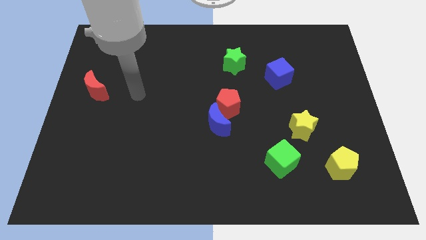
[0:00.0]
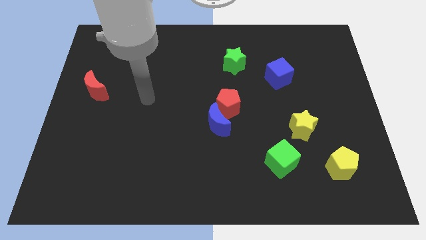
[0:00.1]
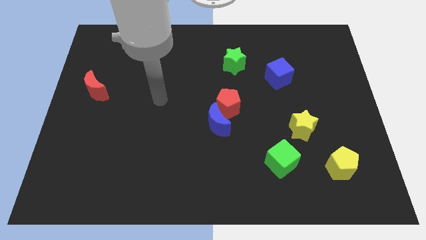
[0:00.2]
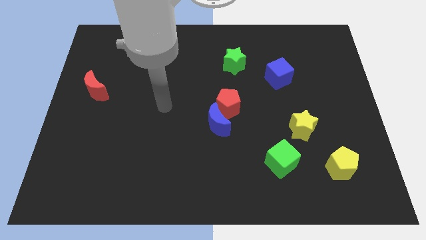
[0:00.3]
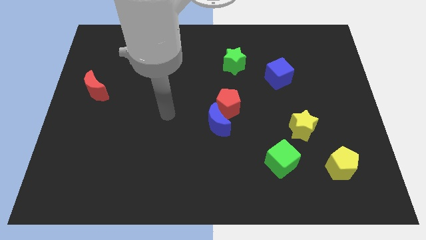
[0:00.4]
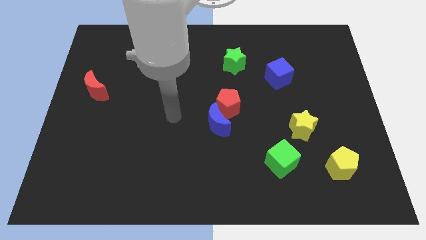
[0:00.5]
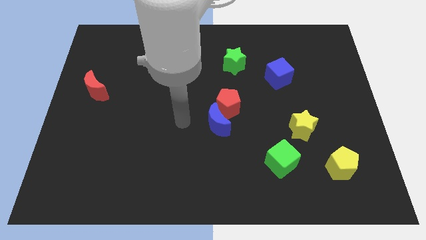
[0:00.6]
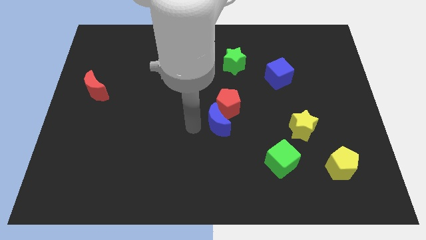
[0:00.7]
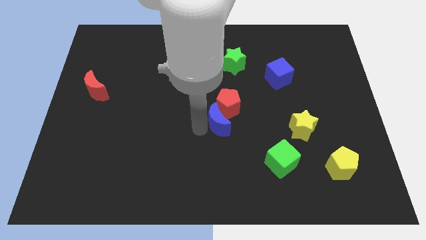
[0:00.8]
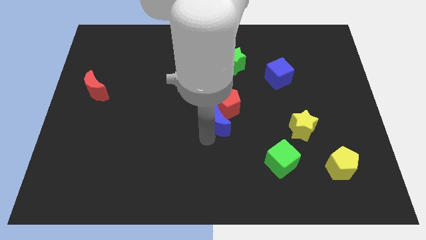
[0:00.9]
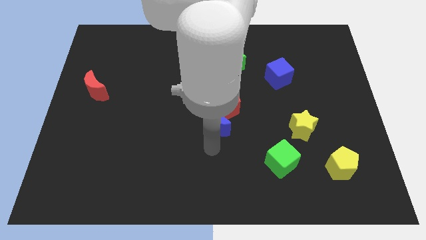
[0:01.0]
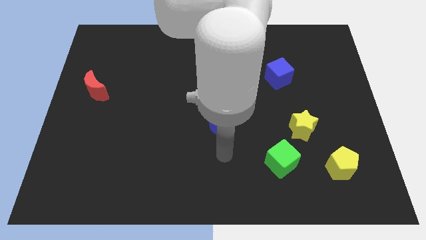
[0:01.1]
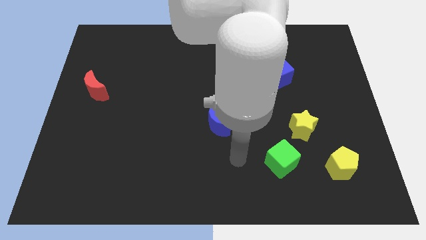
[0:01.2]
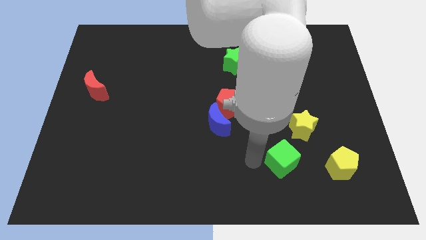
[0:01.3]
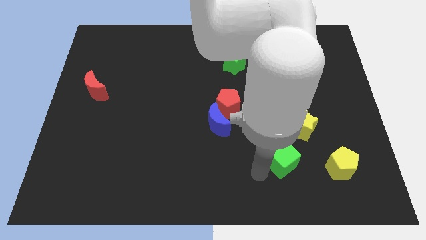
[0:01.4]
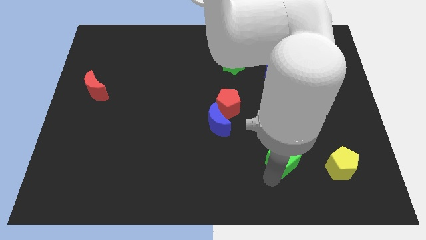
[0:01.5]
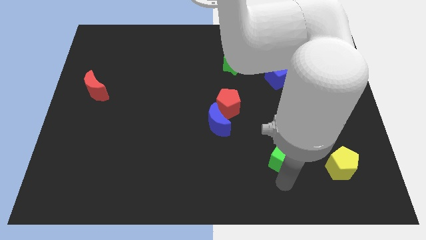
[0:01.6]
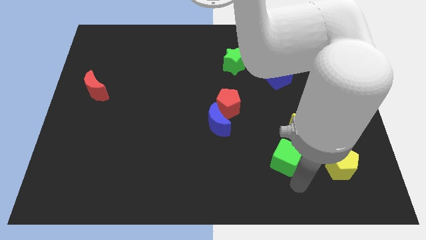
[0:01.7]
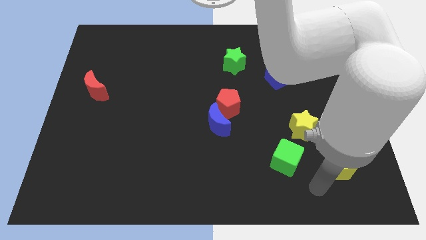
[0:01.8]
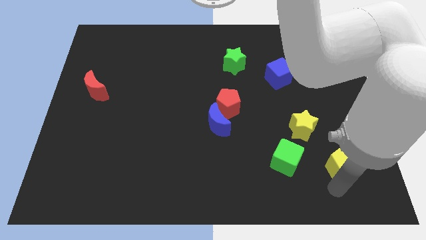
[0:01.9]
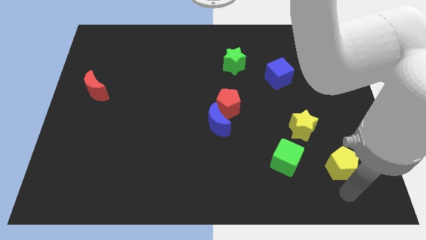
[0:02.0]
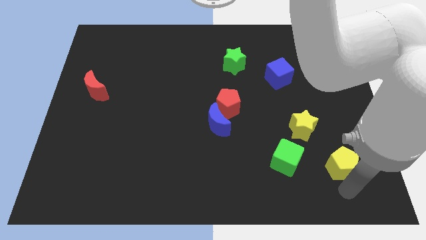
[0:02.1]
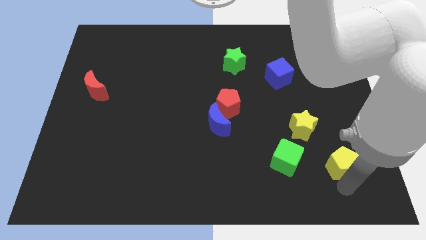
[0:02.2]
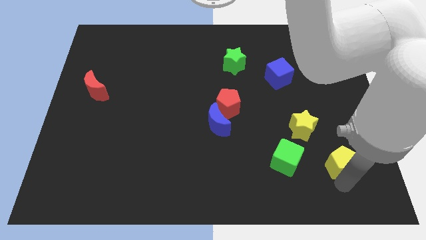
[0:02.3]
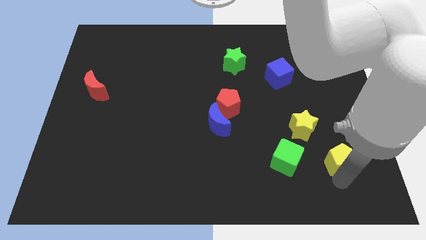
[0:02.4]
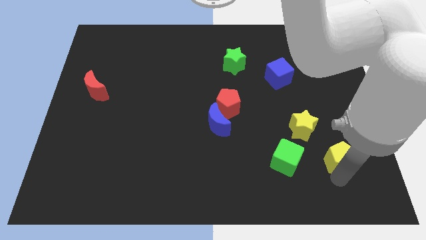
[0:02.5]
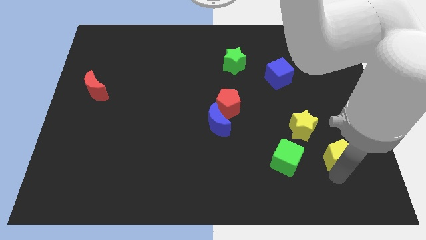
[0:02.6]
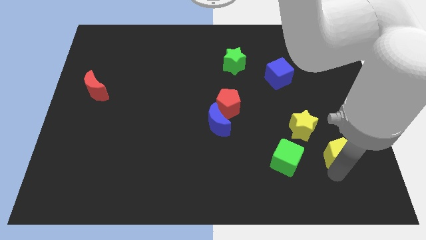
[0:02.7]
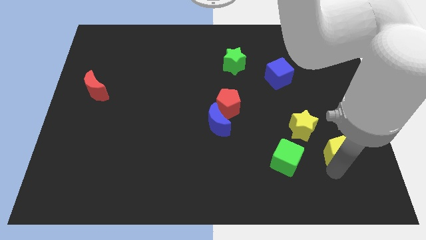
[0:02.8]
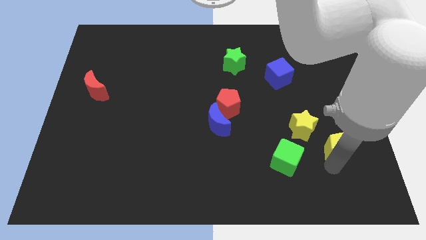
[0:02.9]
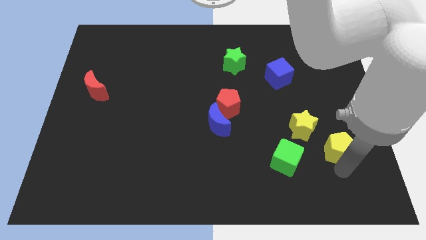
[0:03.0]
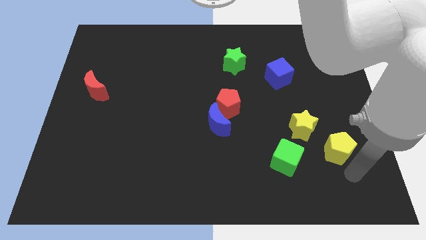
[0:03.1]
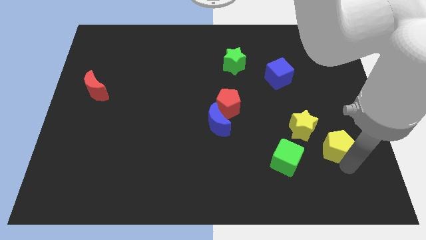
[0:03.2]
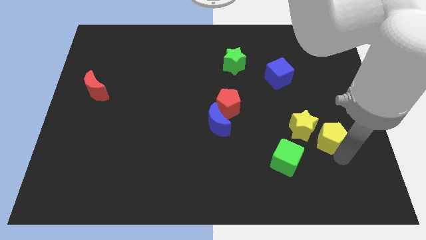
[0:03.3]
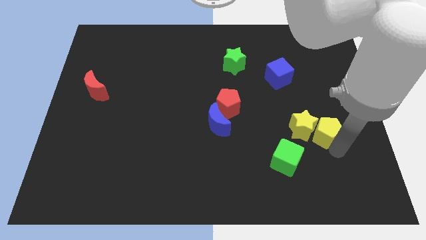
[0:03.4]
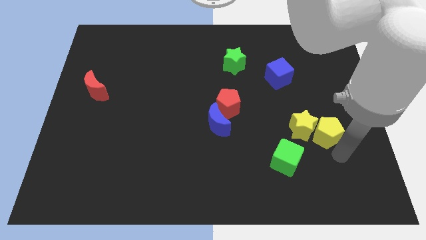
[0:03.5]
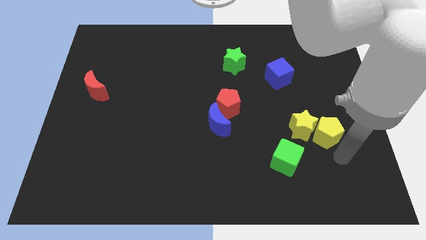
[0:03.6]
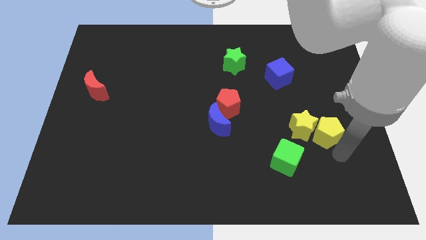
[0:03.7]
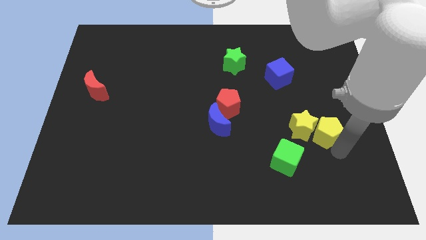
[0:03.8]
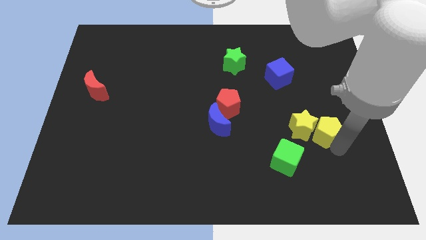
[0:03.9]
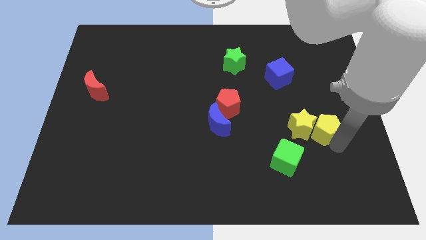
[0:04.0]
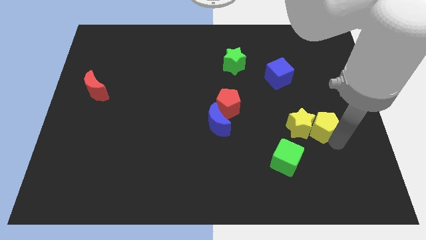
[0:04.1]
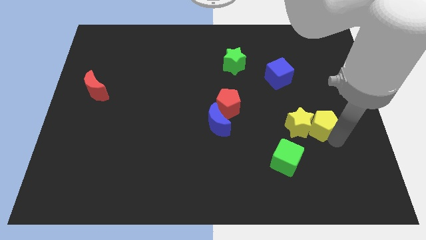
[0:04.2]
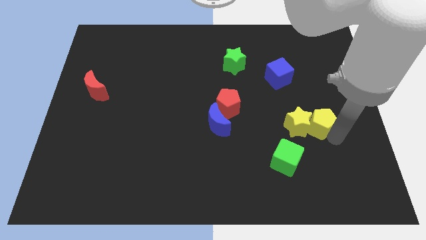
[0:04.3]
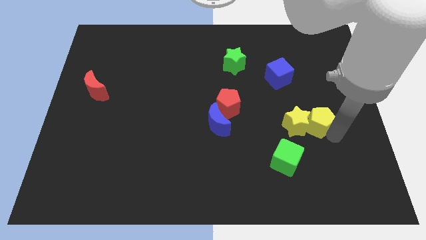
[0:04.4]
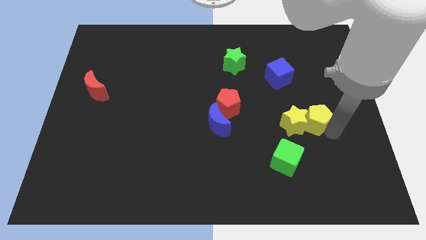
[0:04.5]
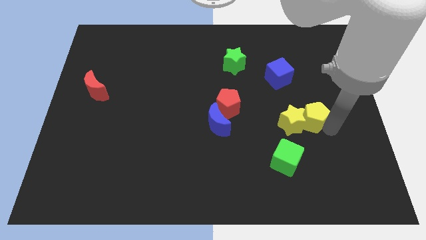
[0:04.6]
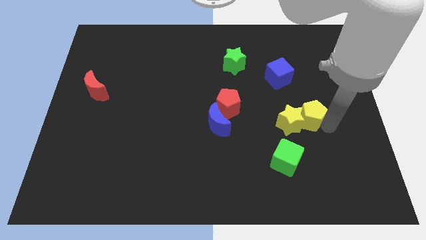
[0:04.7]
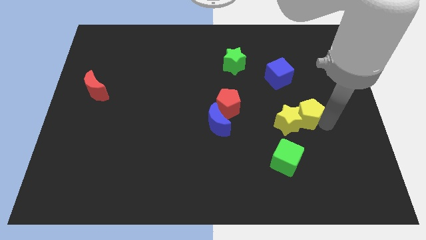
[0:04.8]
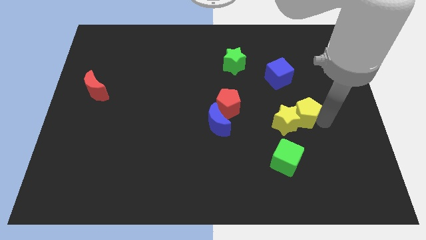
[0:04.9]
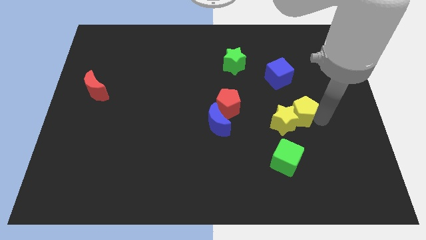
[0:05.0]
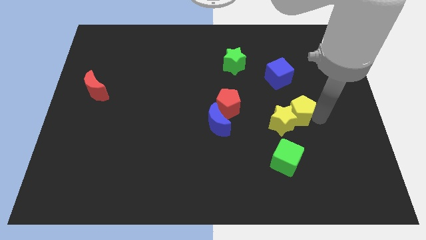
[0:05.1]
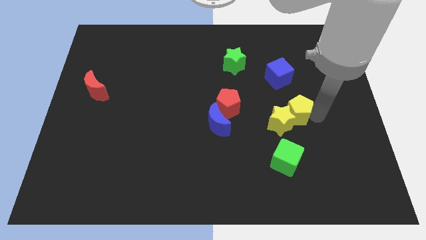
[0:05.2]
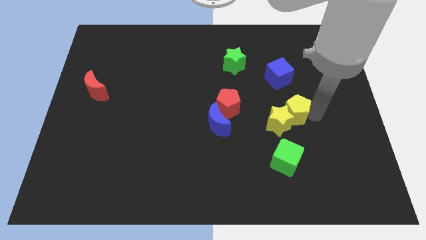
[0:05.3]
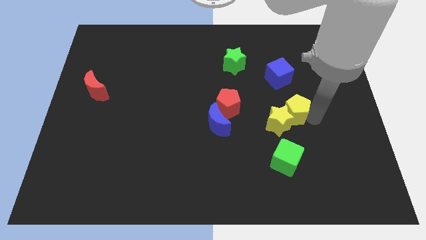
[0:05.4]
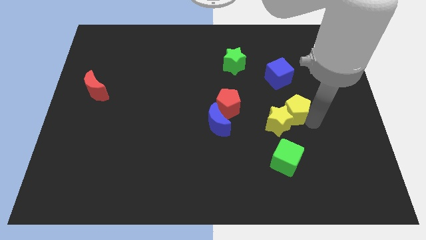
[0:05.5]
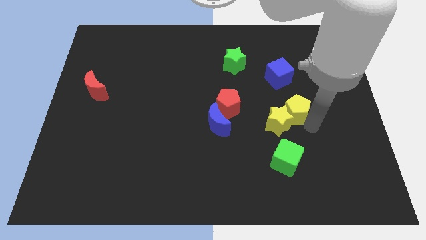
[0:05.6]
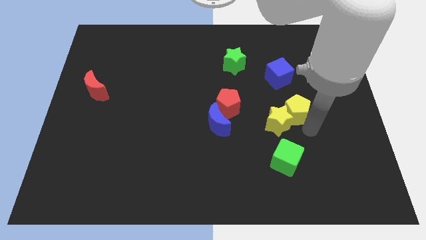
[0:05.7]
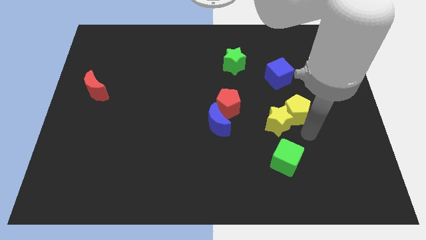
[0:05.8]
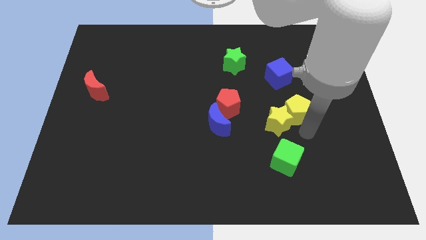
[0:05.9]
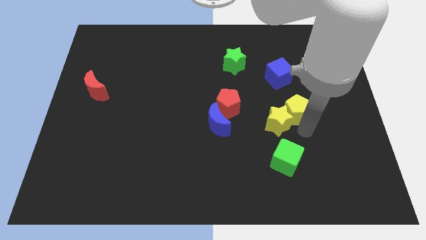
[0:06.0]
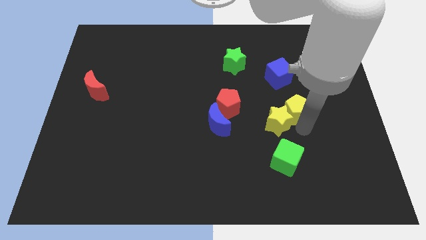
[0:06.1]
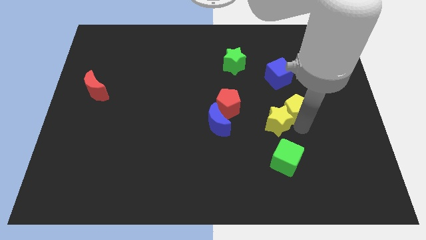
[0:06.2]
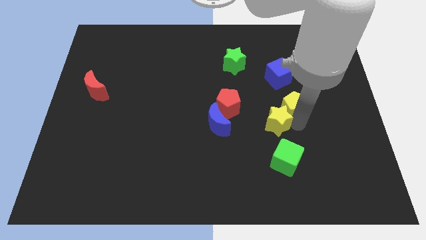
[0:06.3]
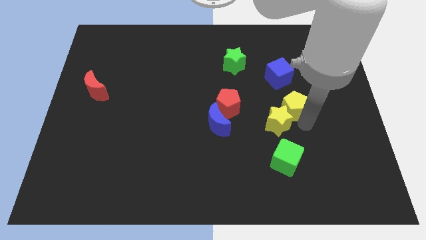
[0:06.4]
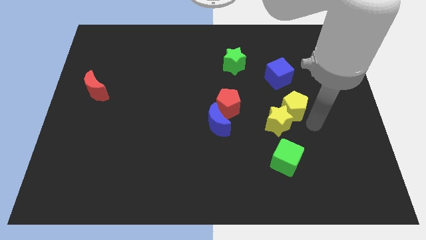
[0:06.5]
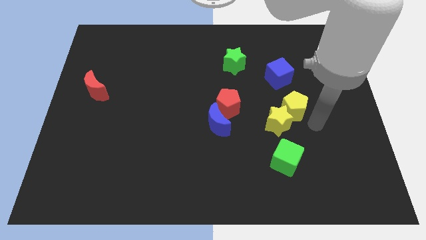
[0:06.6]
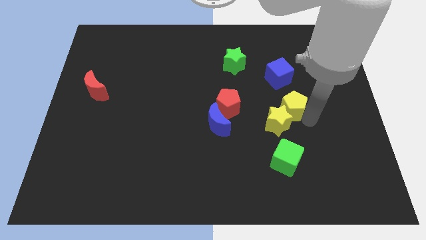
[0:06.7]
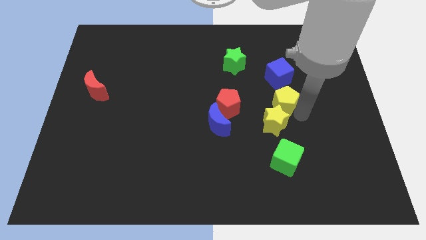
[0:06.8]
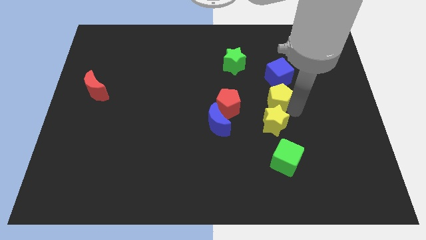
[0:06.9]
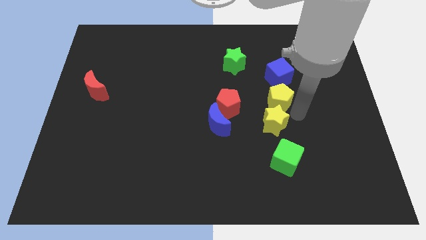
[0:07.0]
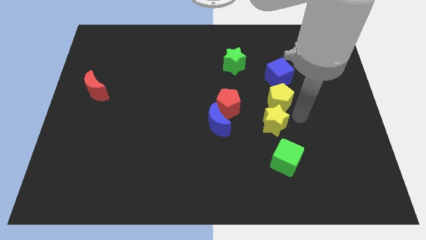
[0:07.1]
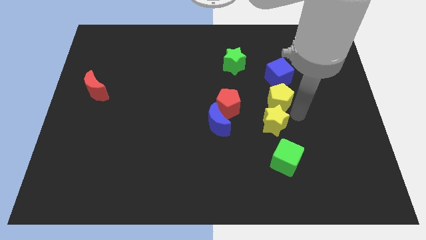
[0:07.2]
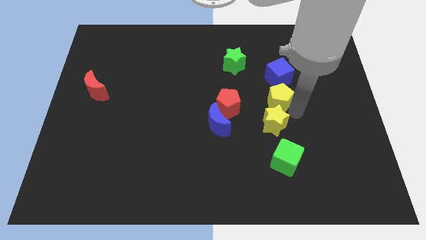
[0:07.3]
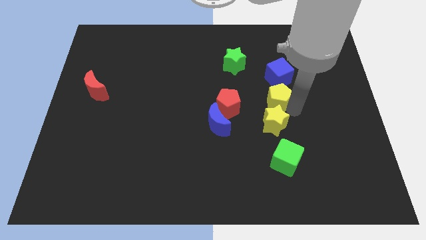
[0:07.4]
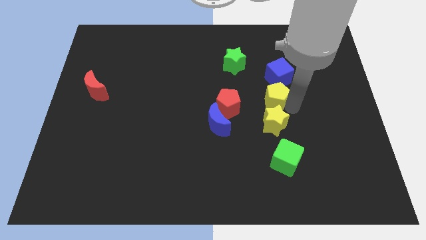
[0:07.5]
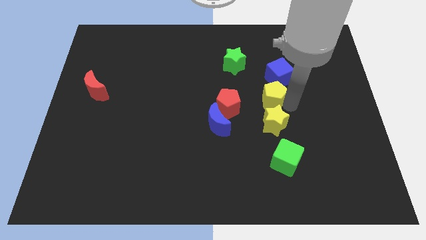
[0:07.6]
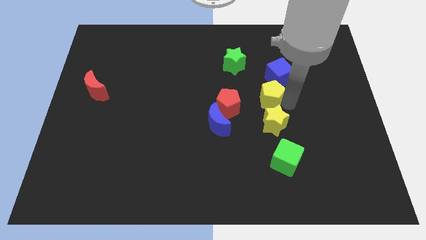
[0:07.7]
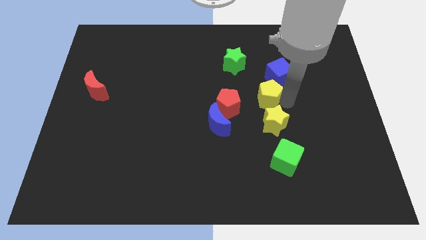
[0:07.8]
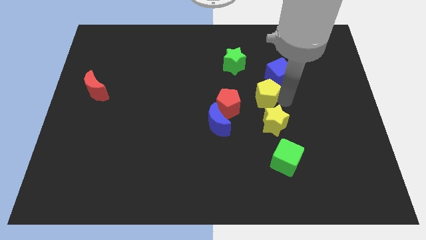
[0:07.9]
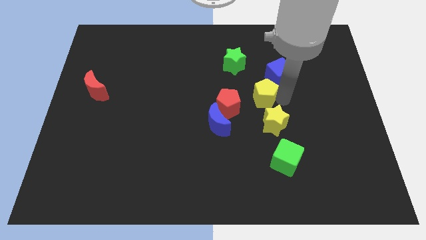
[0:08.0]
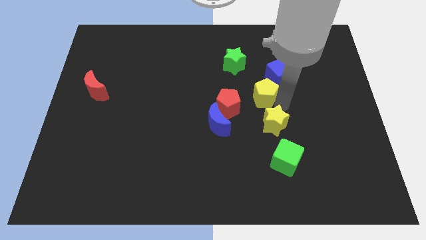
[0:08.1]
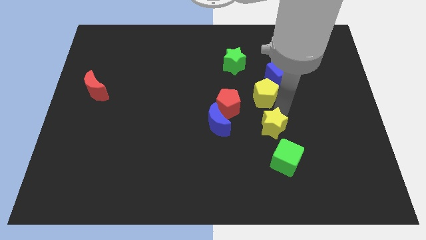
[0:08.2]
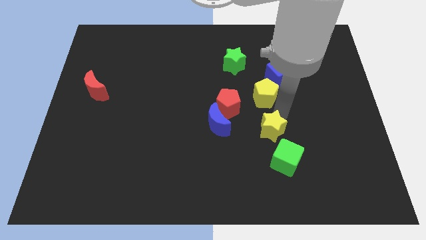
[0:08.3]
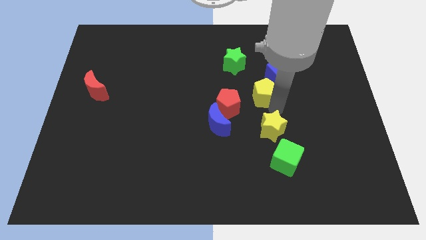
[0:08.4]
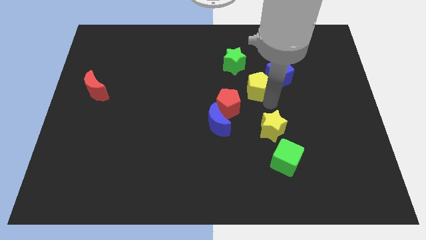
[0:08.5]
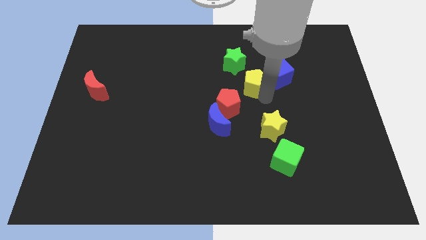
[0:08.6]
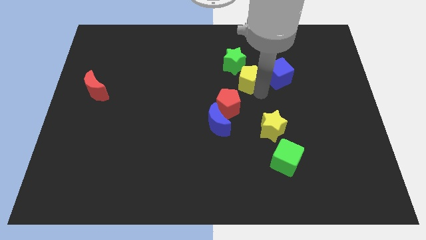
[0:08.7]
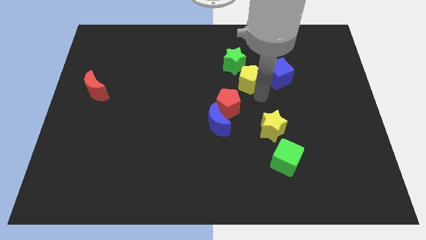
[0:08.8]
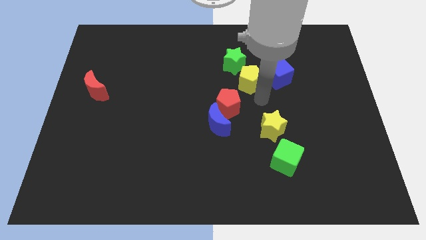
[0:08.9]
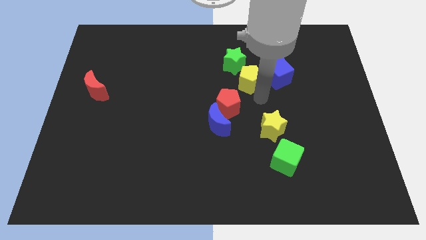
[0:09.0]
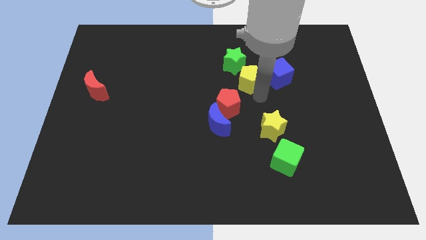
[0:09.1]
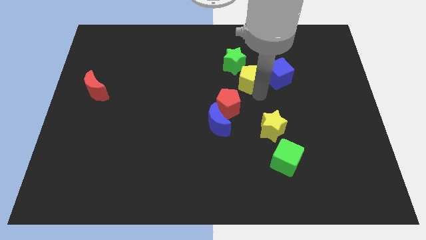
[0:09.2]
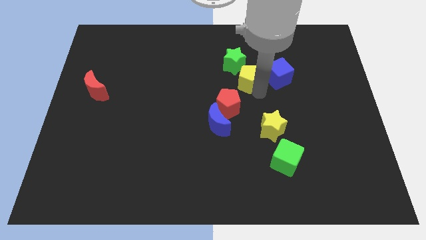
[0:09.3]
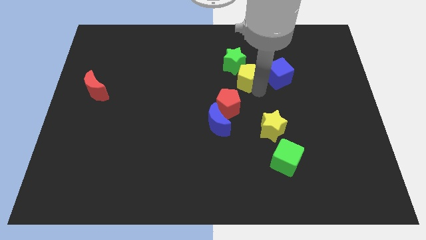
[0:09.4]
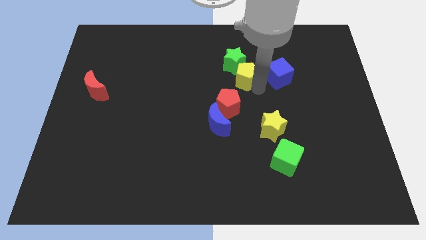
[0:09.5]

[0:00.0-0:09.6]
push the yellow pentagon next to the green star
